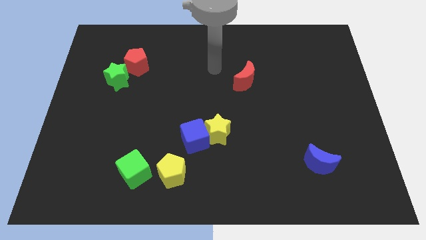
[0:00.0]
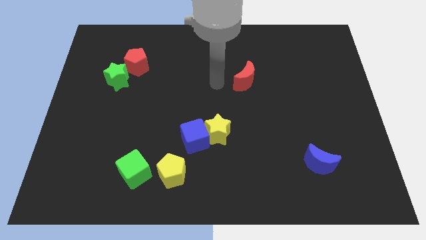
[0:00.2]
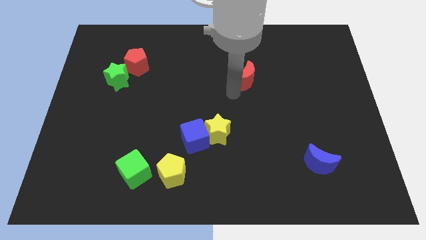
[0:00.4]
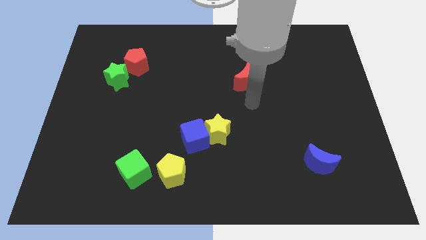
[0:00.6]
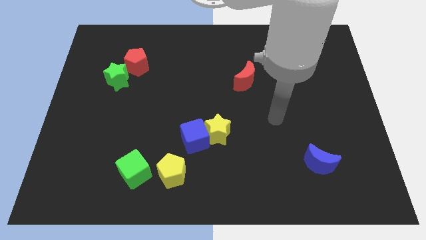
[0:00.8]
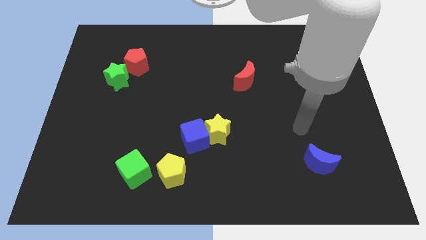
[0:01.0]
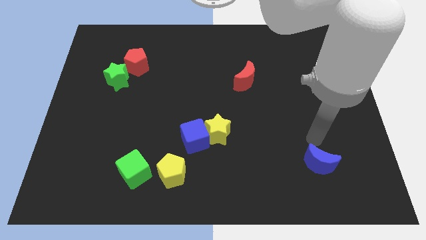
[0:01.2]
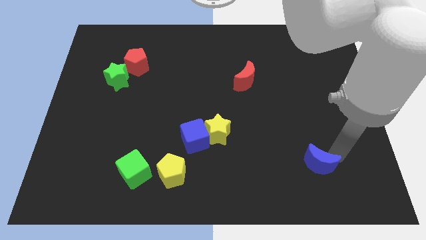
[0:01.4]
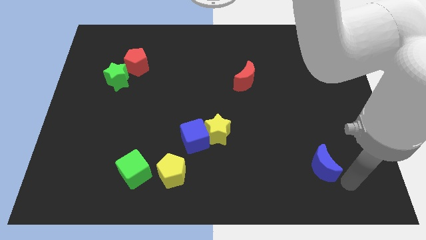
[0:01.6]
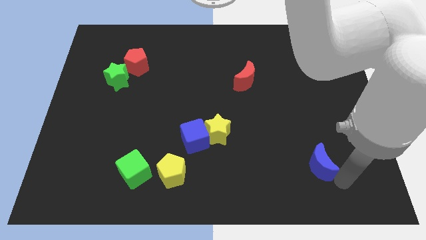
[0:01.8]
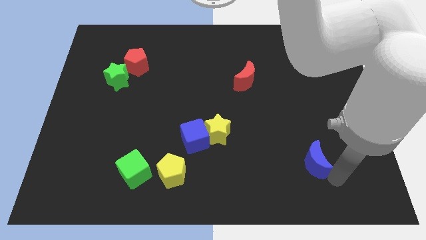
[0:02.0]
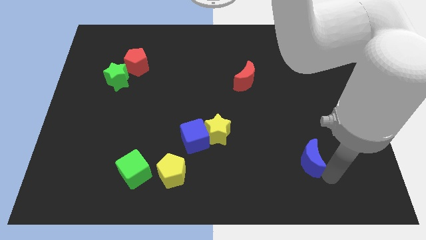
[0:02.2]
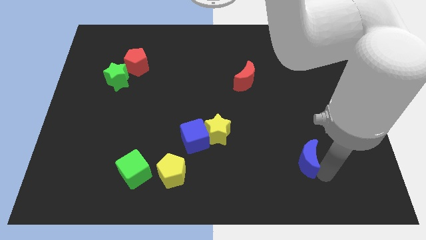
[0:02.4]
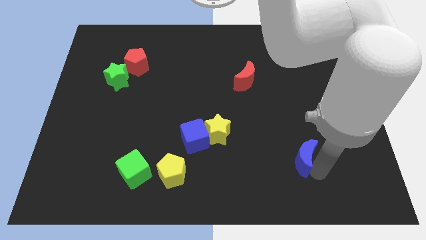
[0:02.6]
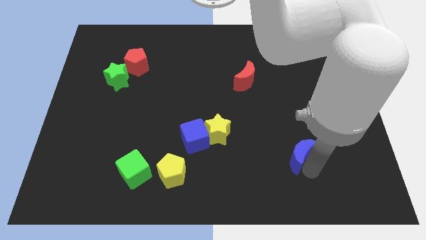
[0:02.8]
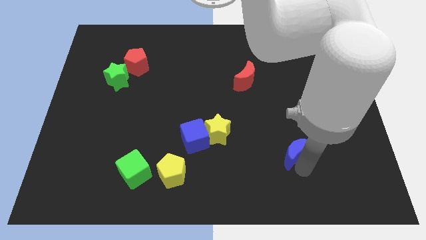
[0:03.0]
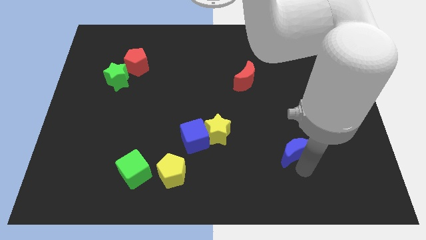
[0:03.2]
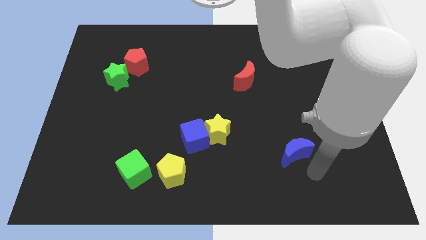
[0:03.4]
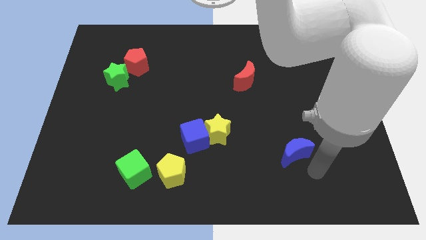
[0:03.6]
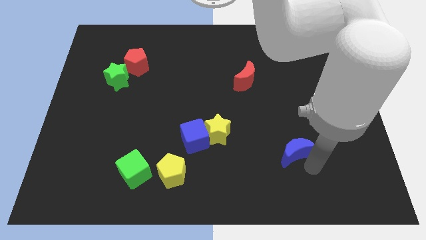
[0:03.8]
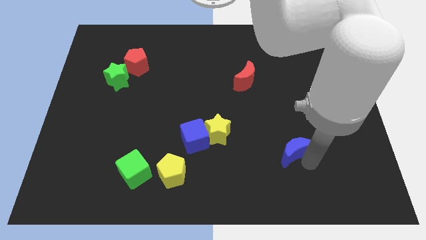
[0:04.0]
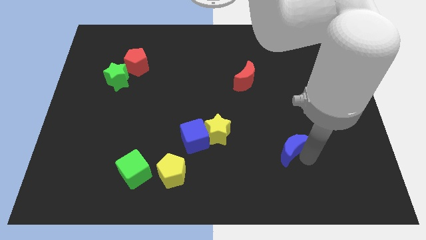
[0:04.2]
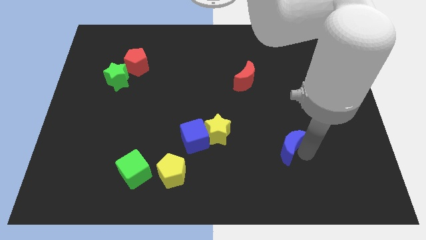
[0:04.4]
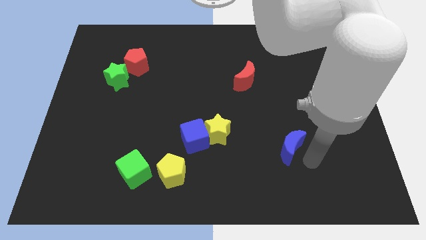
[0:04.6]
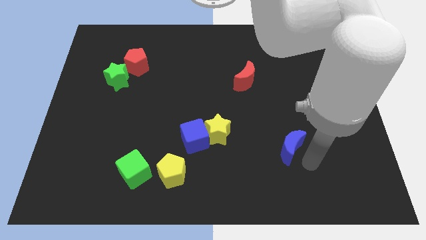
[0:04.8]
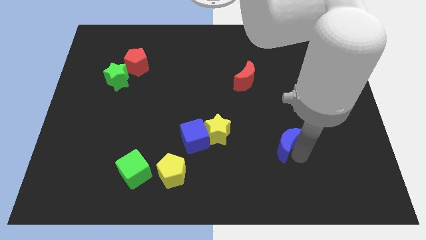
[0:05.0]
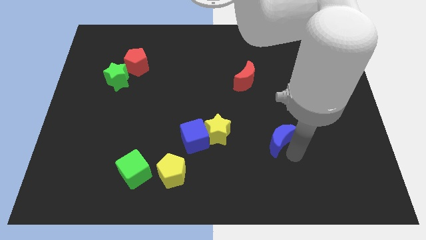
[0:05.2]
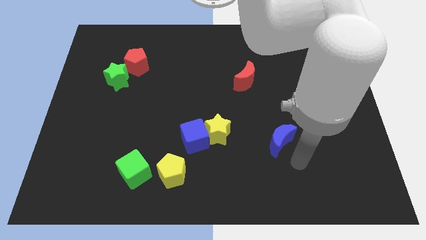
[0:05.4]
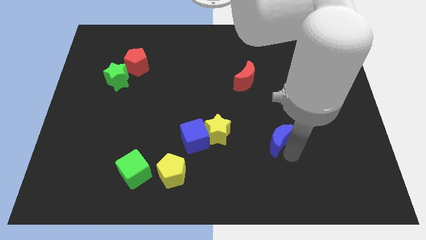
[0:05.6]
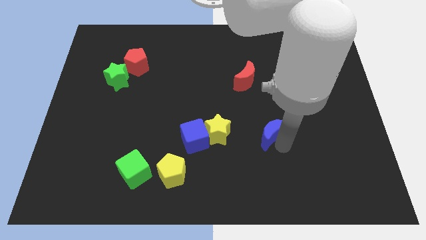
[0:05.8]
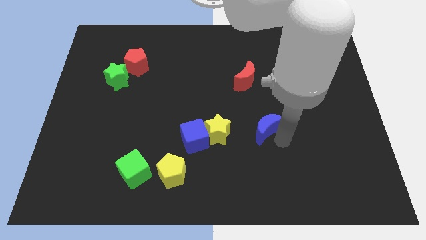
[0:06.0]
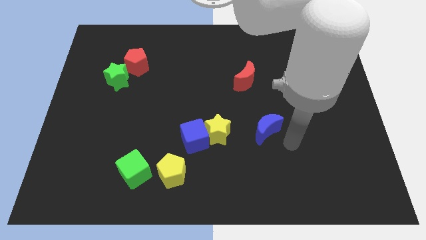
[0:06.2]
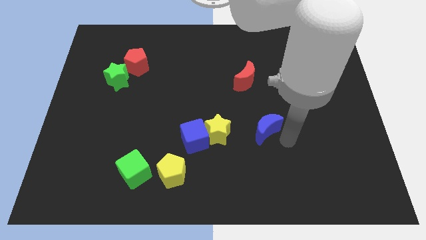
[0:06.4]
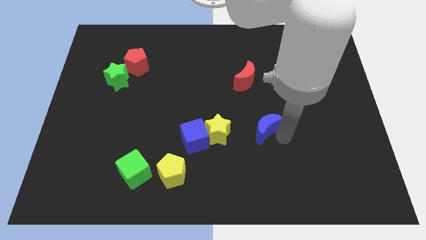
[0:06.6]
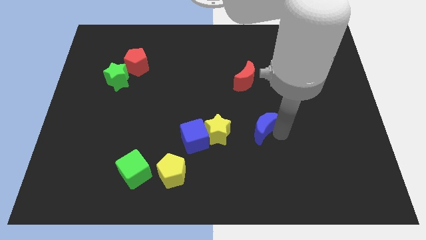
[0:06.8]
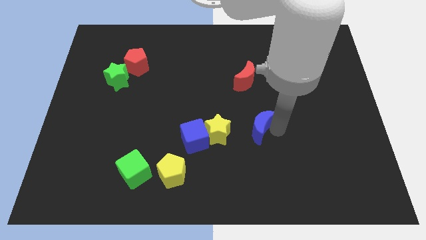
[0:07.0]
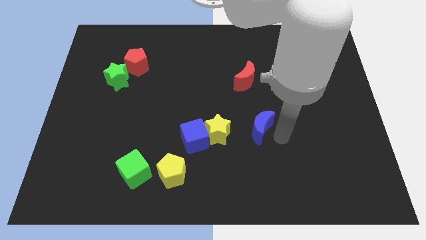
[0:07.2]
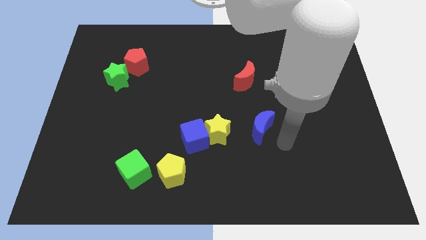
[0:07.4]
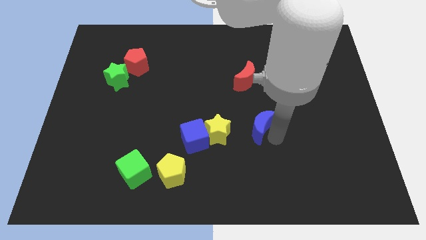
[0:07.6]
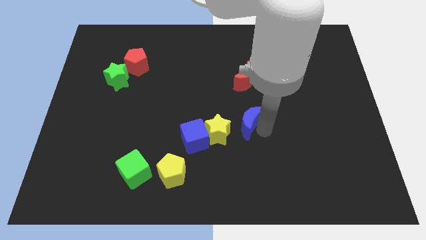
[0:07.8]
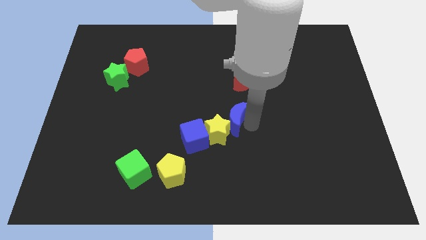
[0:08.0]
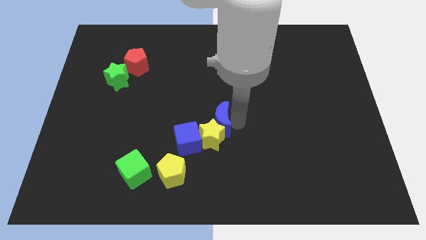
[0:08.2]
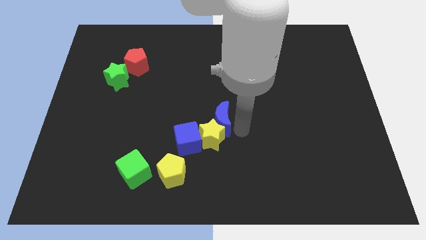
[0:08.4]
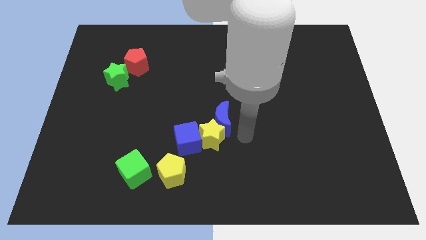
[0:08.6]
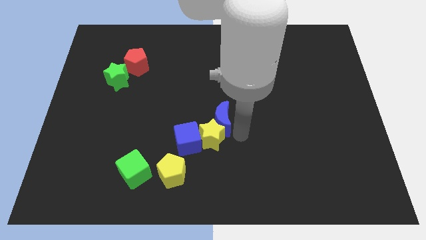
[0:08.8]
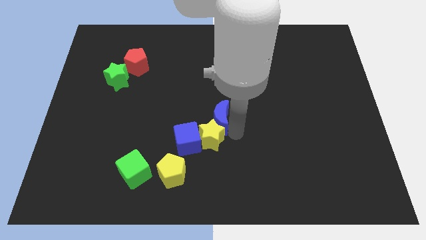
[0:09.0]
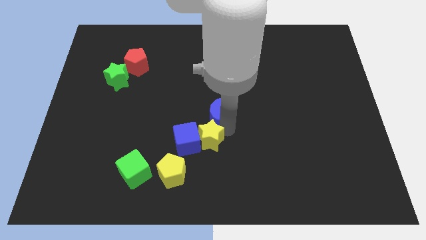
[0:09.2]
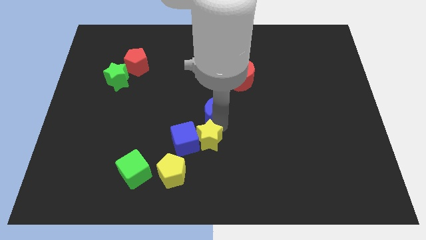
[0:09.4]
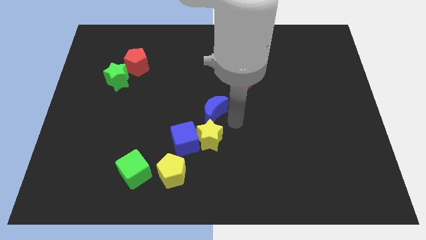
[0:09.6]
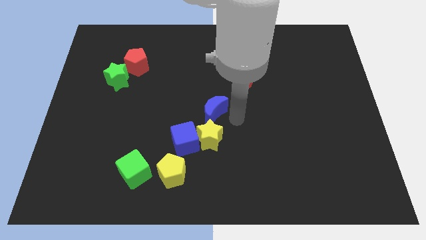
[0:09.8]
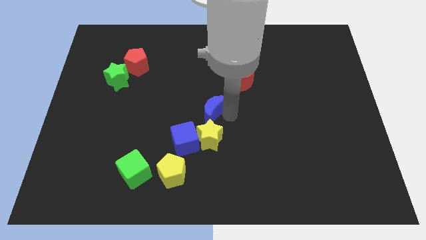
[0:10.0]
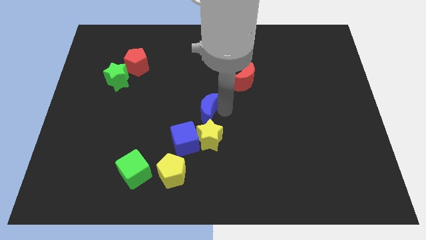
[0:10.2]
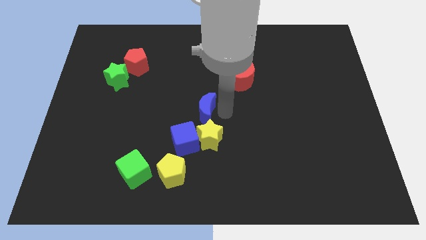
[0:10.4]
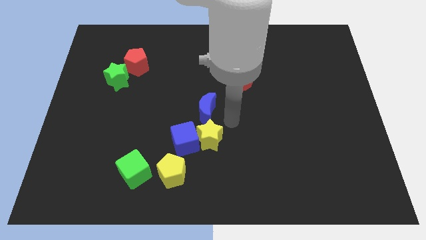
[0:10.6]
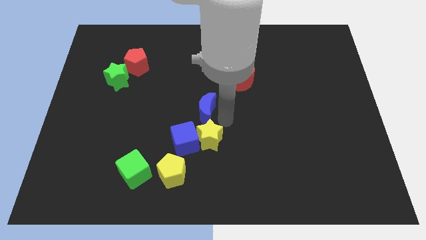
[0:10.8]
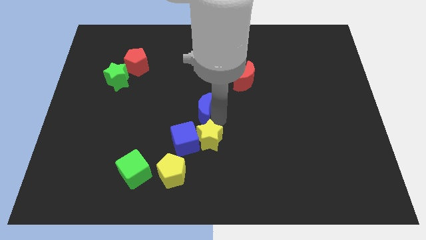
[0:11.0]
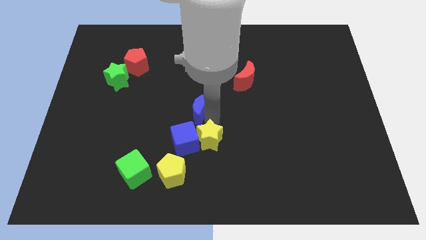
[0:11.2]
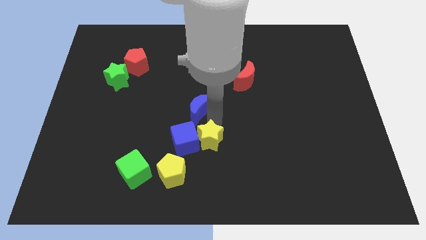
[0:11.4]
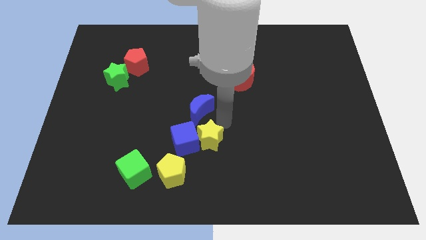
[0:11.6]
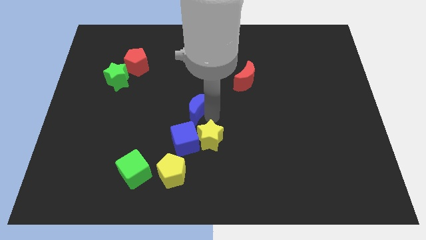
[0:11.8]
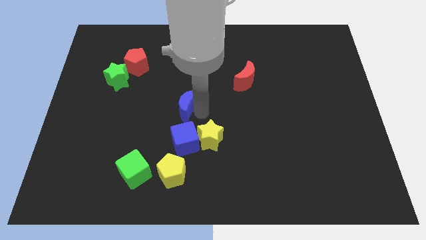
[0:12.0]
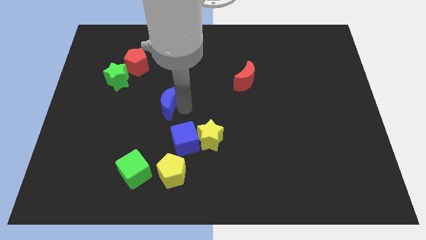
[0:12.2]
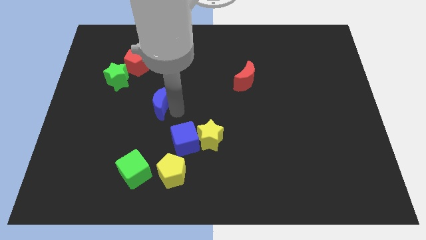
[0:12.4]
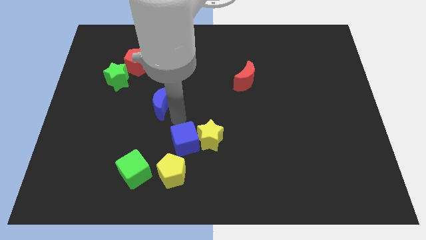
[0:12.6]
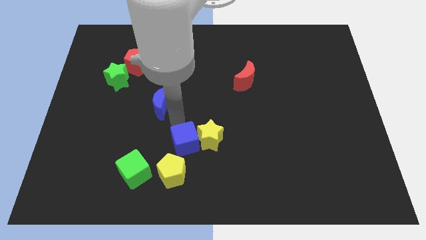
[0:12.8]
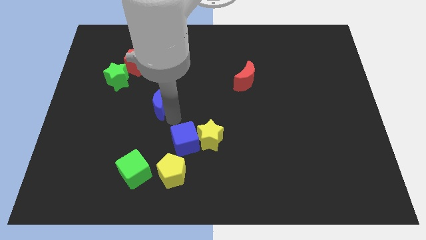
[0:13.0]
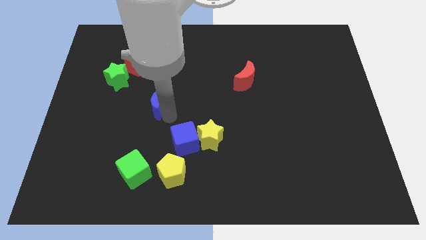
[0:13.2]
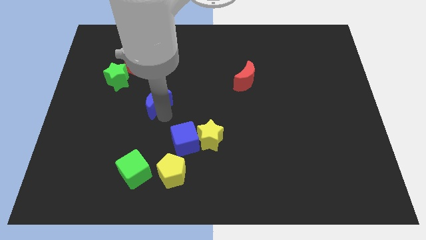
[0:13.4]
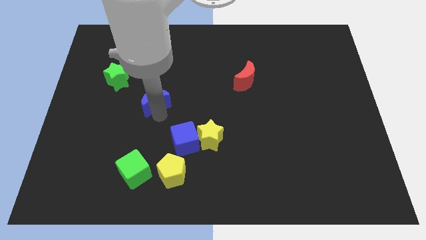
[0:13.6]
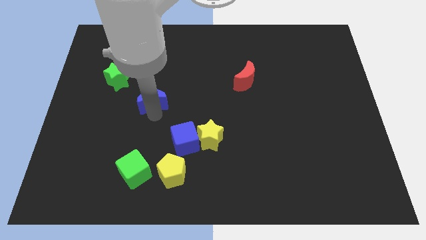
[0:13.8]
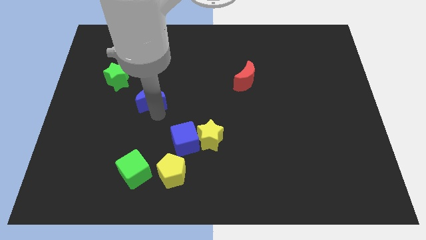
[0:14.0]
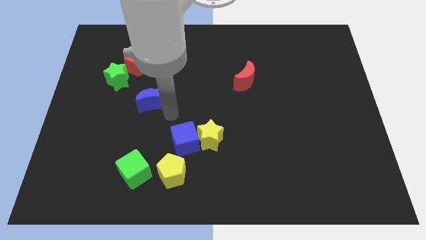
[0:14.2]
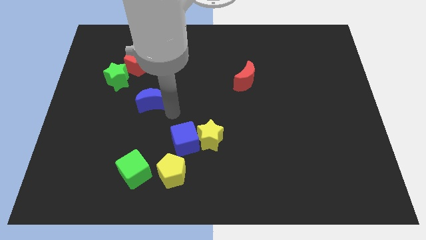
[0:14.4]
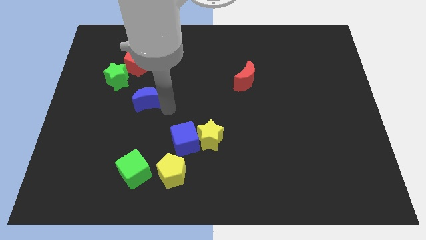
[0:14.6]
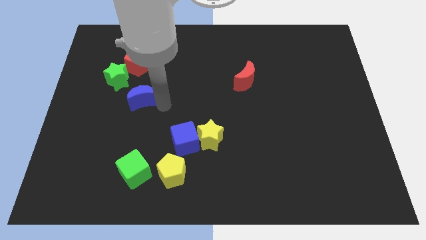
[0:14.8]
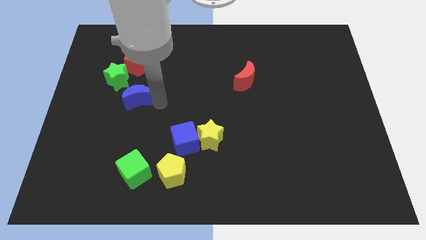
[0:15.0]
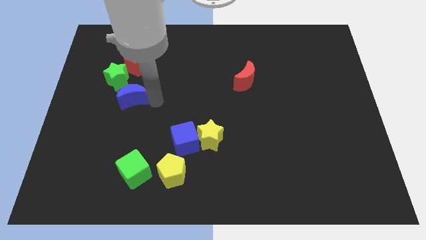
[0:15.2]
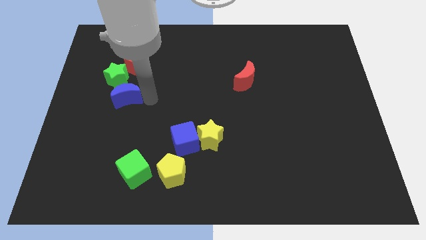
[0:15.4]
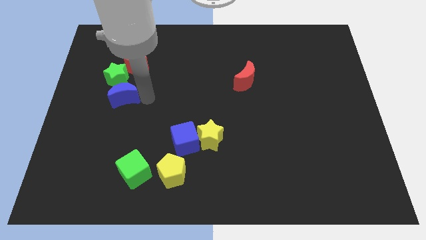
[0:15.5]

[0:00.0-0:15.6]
put the blue moon next to the green star
